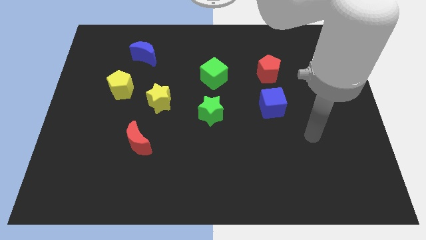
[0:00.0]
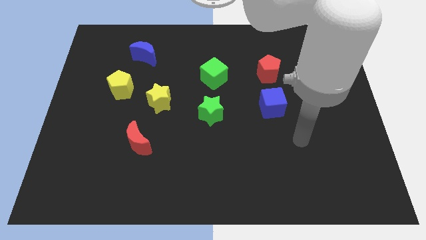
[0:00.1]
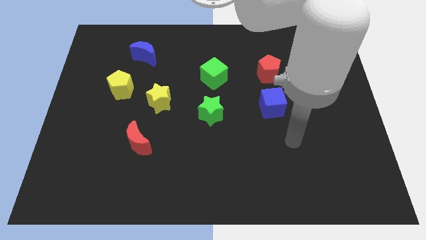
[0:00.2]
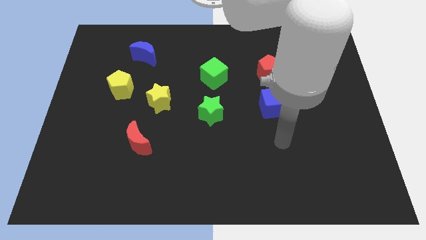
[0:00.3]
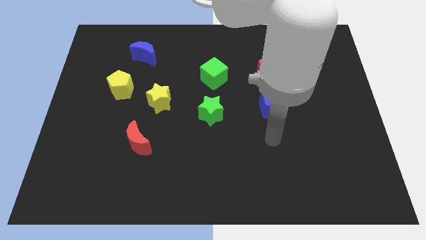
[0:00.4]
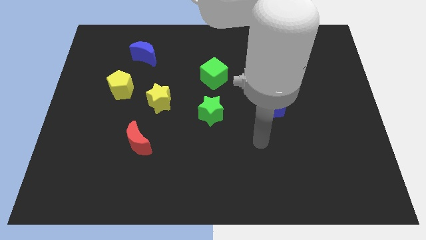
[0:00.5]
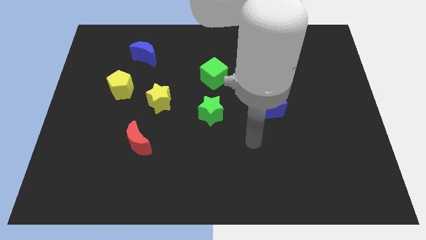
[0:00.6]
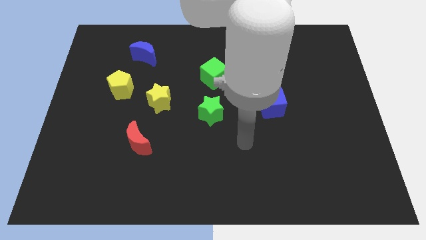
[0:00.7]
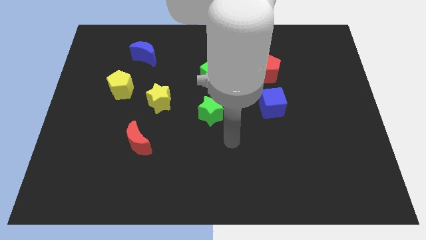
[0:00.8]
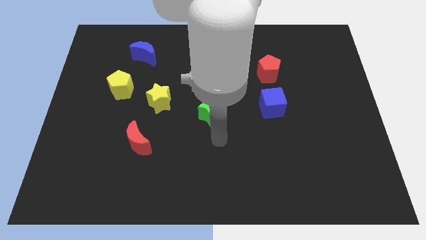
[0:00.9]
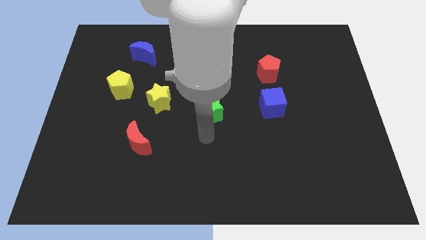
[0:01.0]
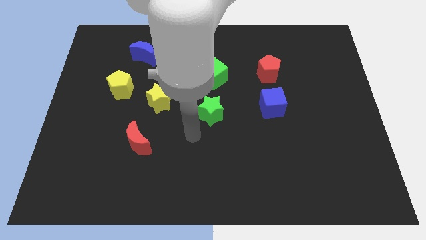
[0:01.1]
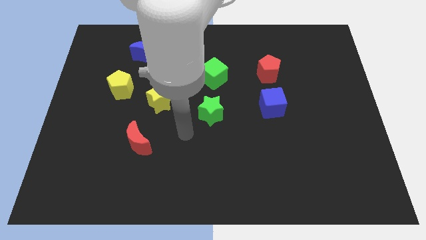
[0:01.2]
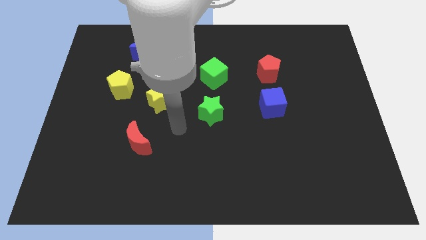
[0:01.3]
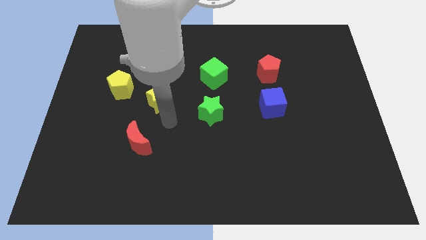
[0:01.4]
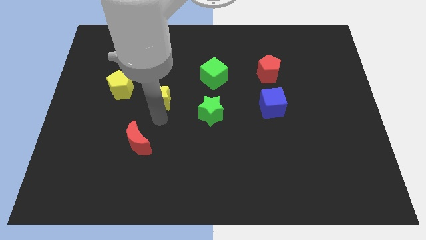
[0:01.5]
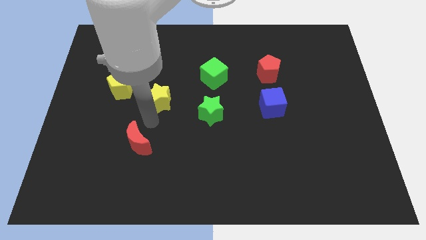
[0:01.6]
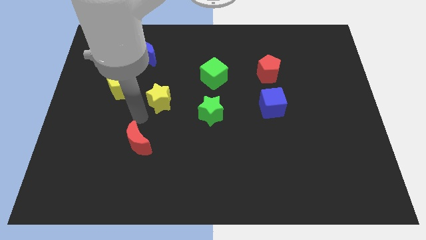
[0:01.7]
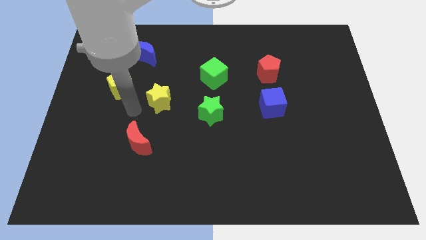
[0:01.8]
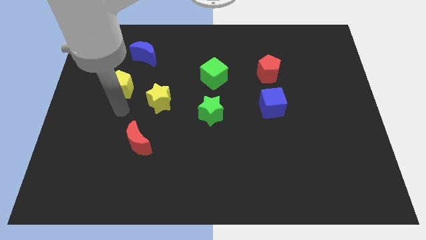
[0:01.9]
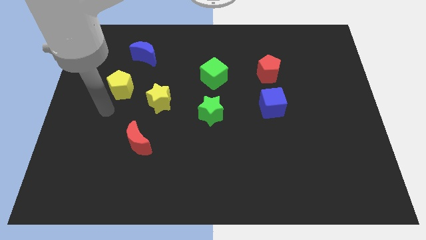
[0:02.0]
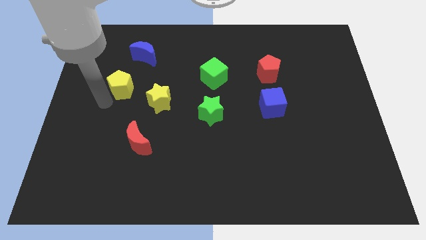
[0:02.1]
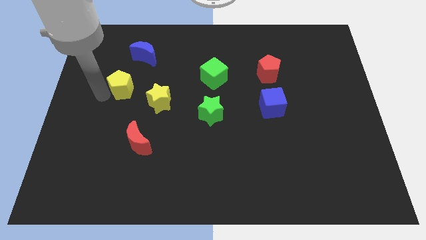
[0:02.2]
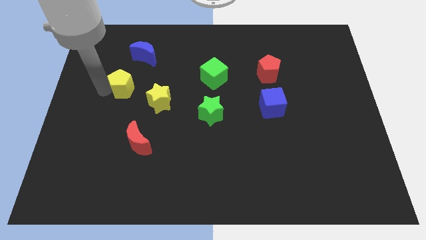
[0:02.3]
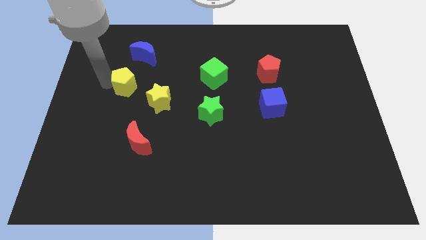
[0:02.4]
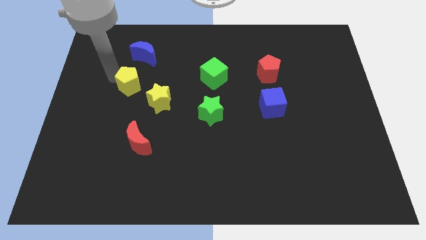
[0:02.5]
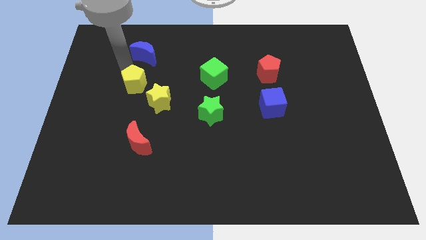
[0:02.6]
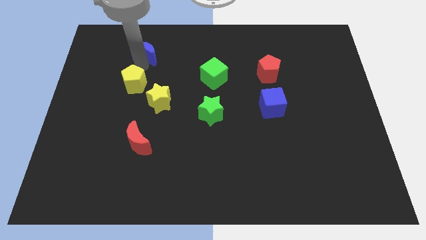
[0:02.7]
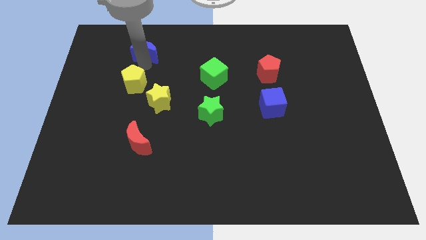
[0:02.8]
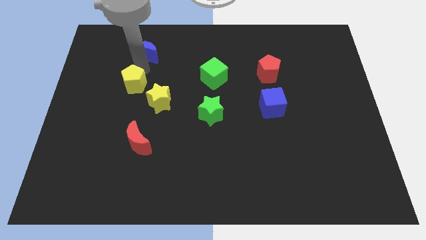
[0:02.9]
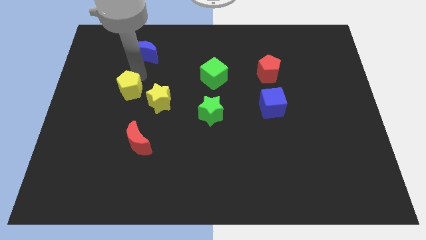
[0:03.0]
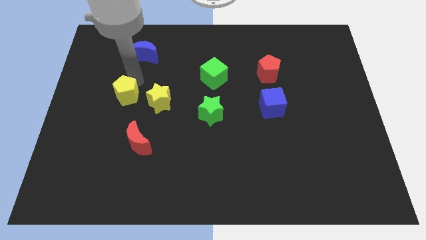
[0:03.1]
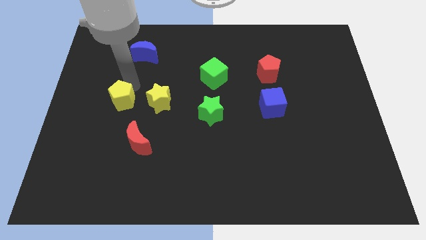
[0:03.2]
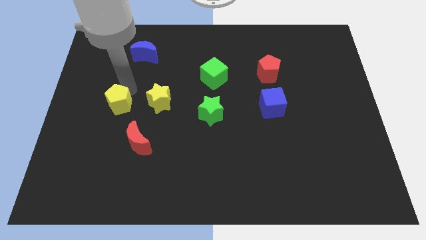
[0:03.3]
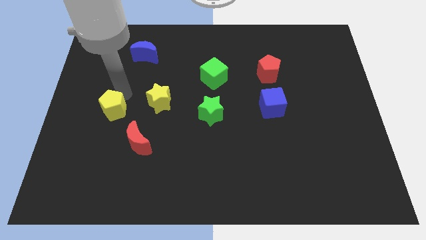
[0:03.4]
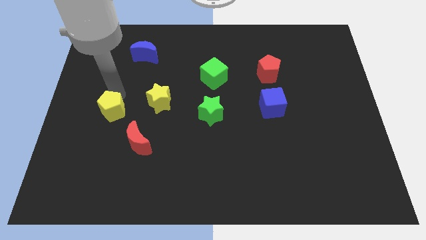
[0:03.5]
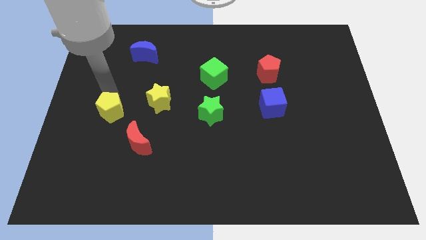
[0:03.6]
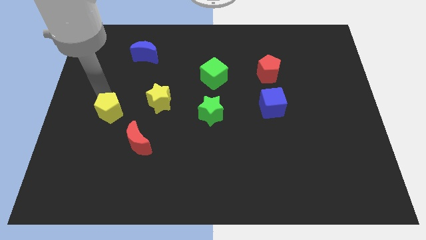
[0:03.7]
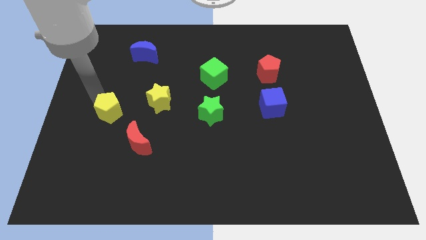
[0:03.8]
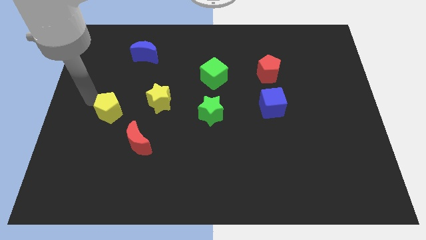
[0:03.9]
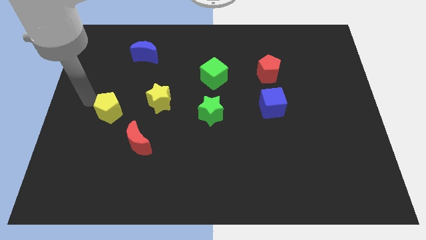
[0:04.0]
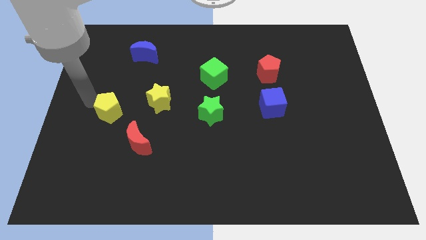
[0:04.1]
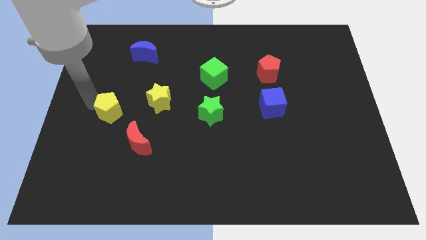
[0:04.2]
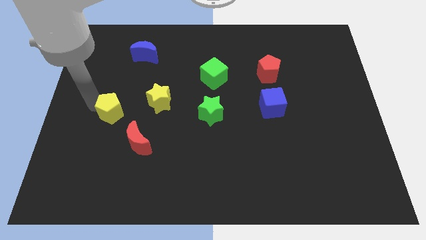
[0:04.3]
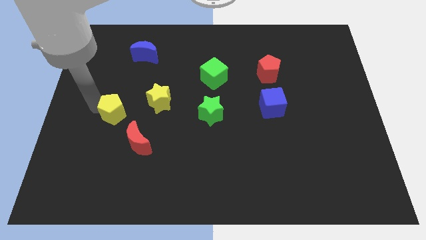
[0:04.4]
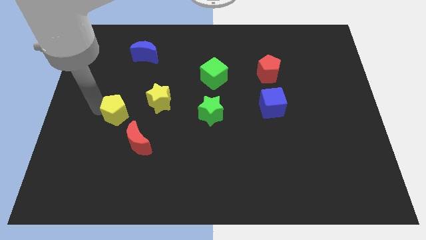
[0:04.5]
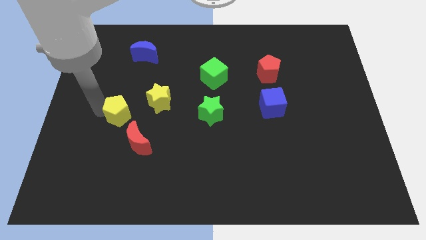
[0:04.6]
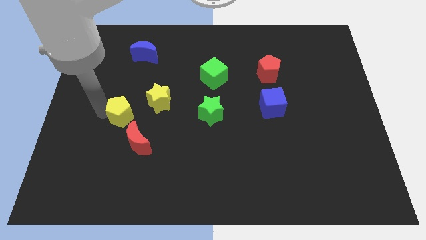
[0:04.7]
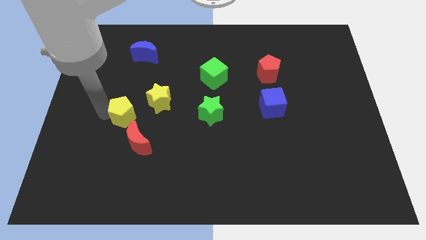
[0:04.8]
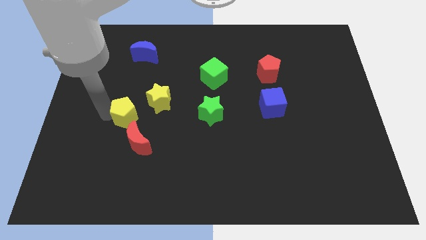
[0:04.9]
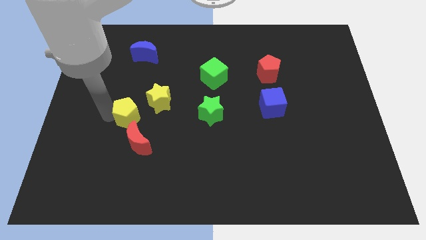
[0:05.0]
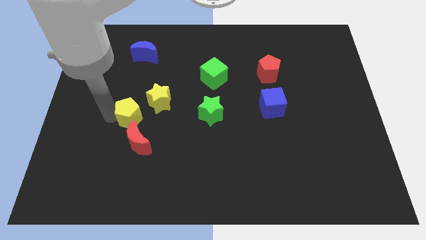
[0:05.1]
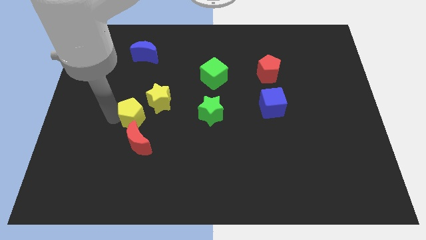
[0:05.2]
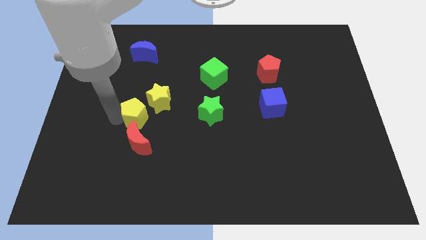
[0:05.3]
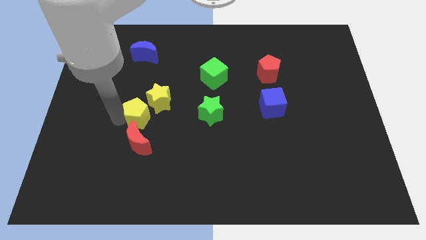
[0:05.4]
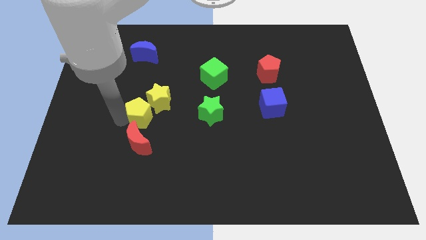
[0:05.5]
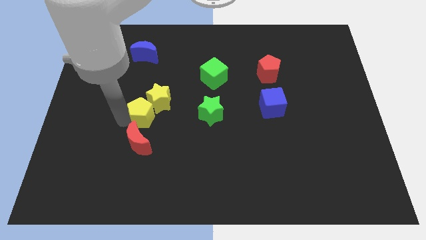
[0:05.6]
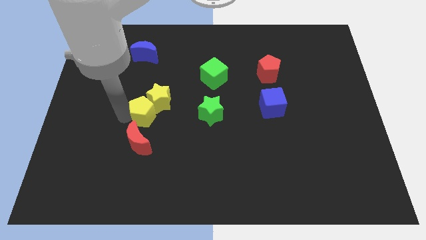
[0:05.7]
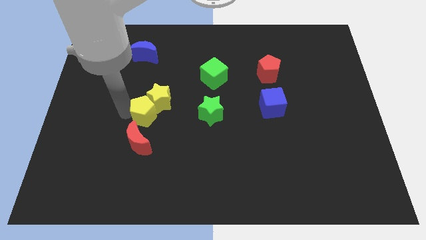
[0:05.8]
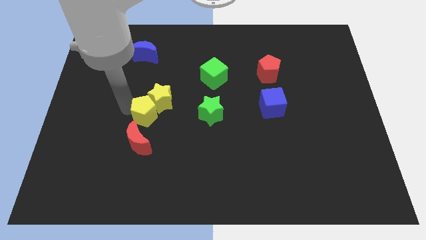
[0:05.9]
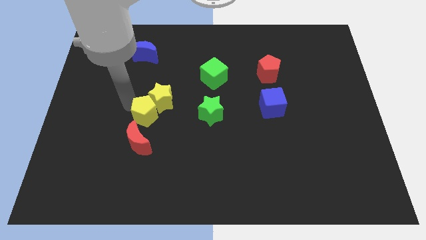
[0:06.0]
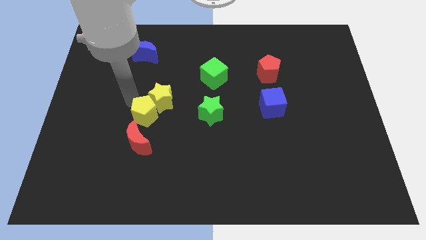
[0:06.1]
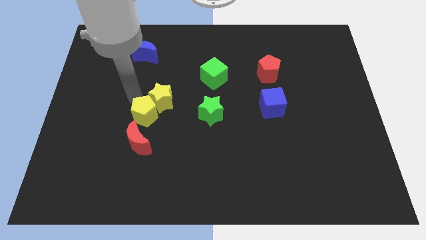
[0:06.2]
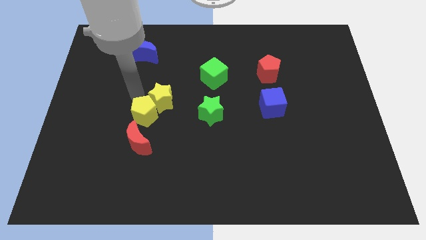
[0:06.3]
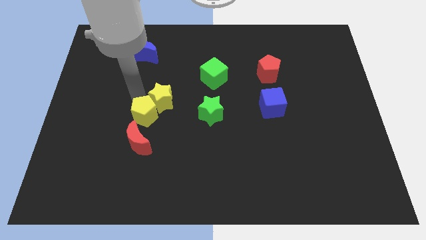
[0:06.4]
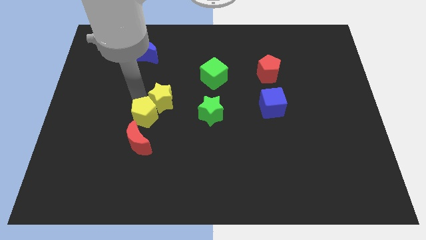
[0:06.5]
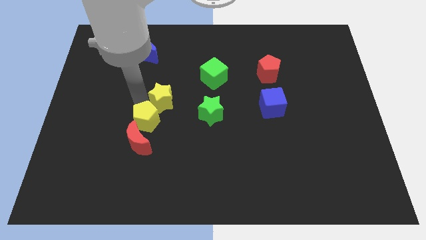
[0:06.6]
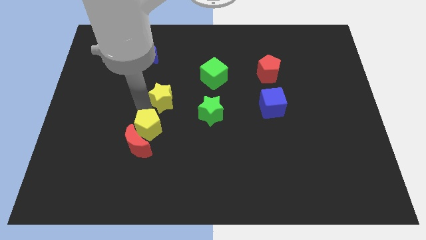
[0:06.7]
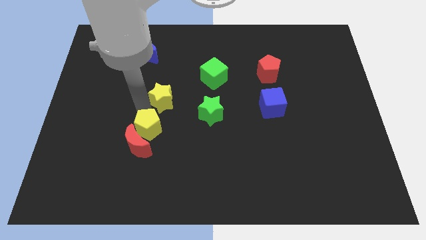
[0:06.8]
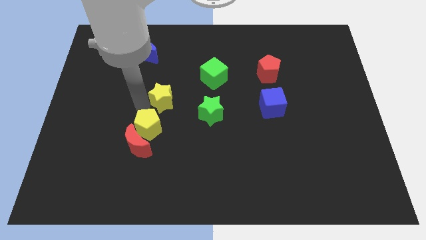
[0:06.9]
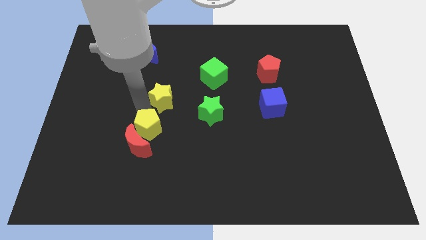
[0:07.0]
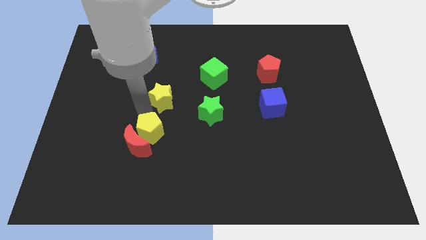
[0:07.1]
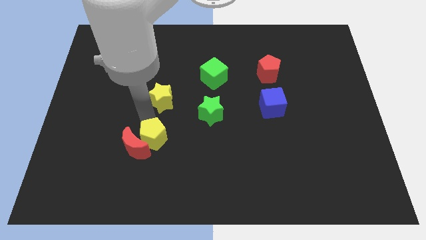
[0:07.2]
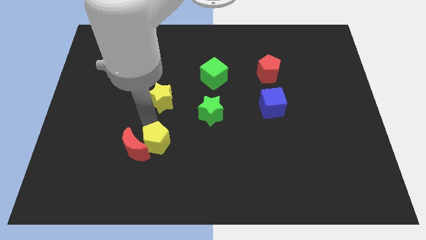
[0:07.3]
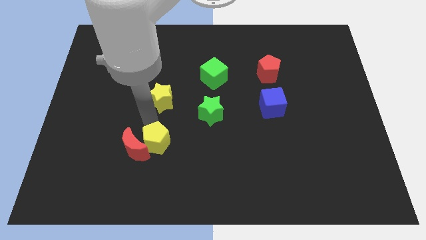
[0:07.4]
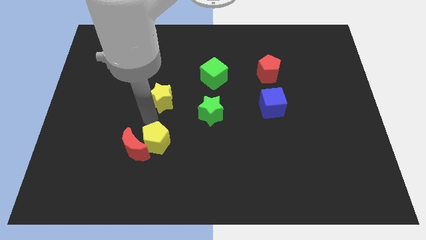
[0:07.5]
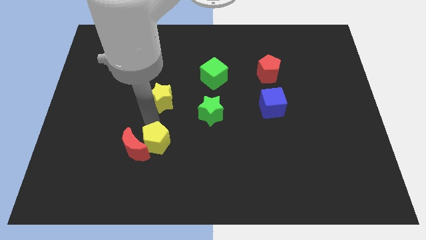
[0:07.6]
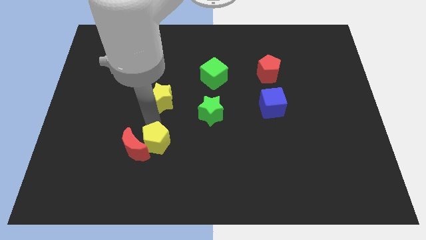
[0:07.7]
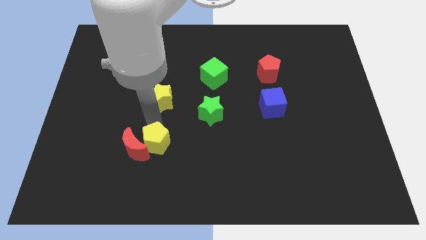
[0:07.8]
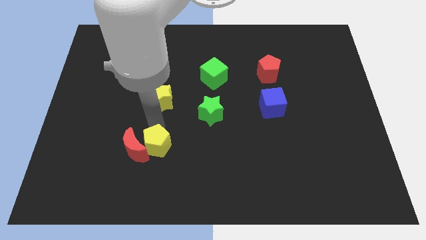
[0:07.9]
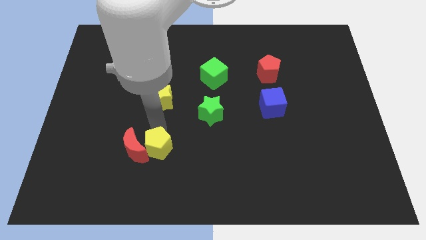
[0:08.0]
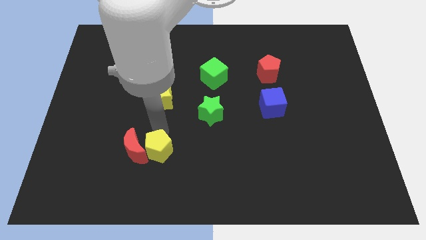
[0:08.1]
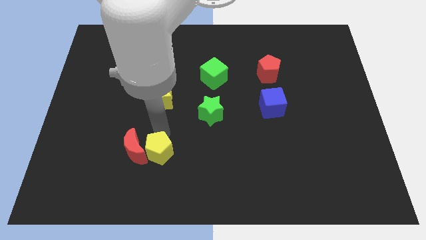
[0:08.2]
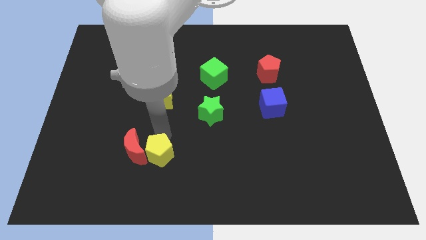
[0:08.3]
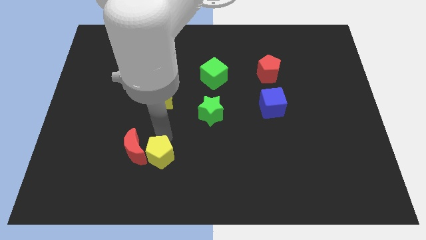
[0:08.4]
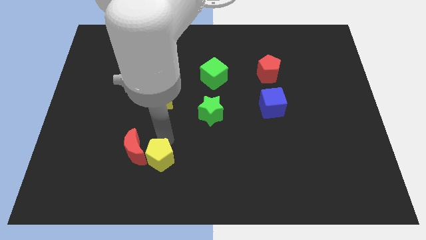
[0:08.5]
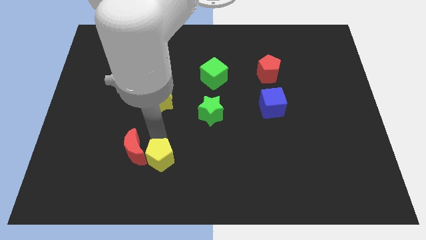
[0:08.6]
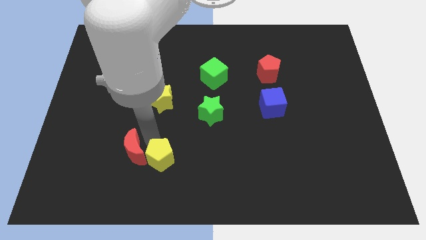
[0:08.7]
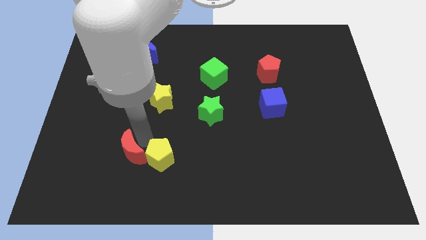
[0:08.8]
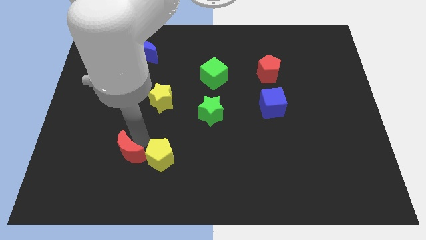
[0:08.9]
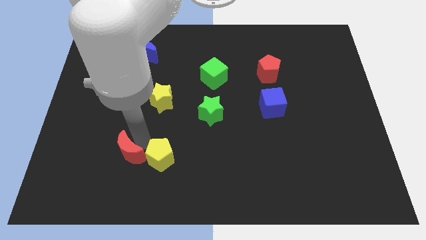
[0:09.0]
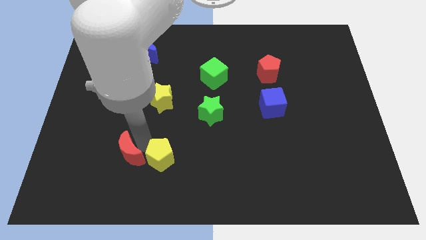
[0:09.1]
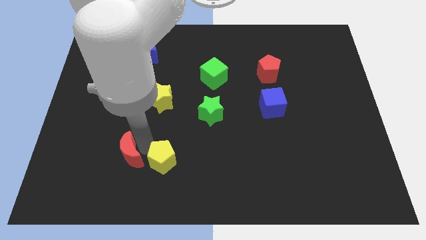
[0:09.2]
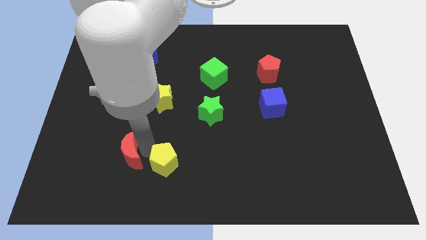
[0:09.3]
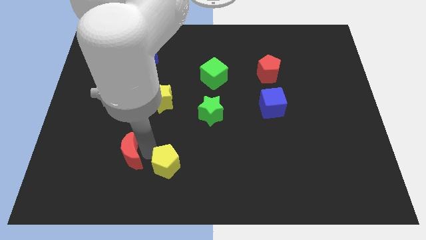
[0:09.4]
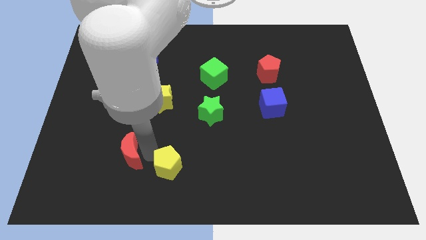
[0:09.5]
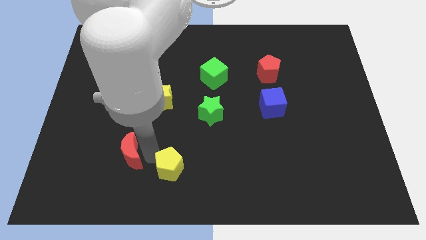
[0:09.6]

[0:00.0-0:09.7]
push the yellow pentagon to the bottom side
